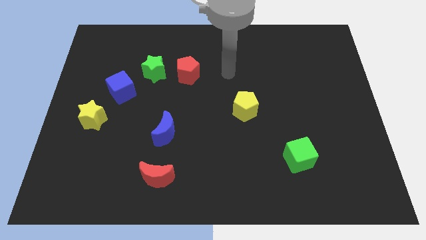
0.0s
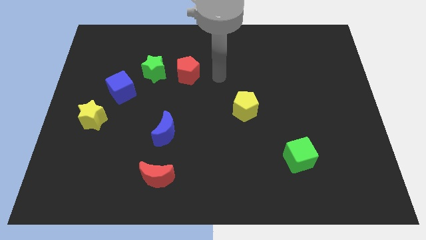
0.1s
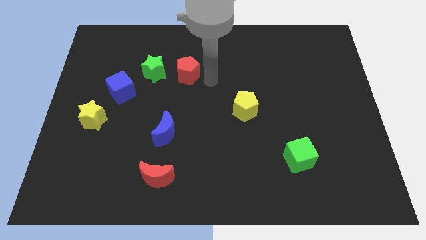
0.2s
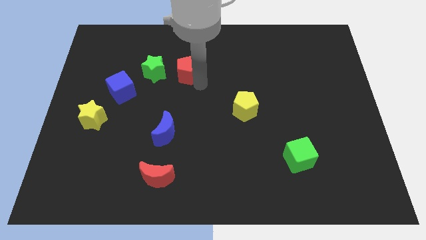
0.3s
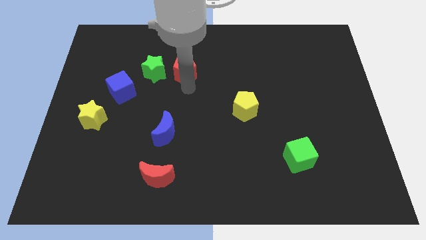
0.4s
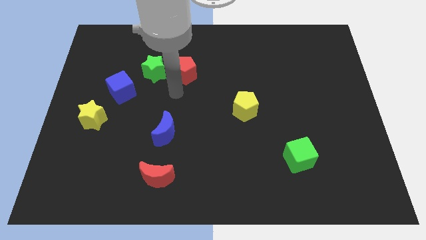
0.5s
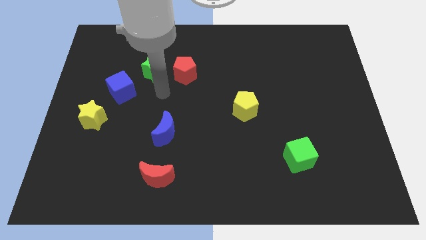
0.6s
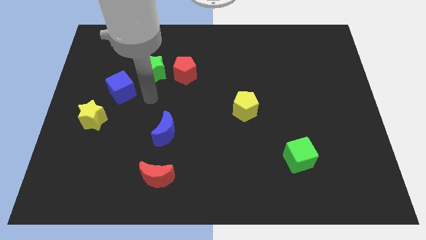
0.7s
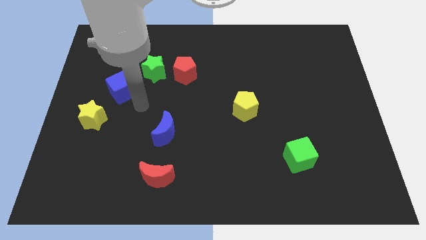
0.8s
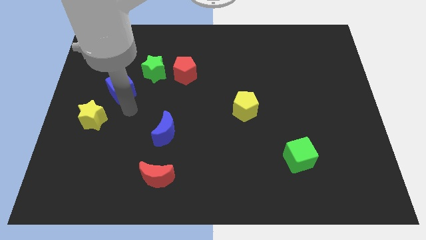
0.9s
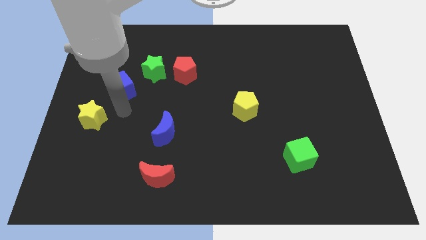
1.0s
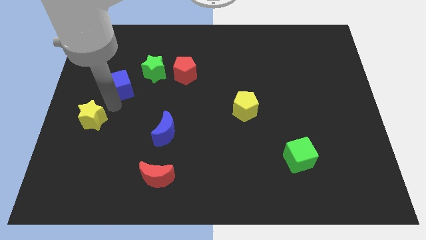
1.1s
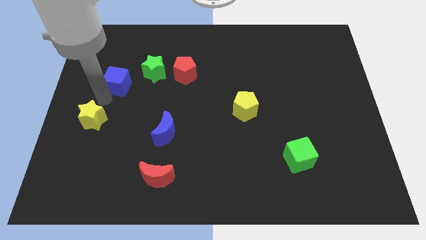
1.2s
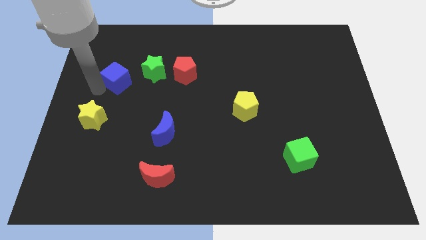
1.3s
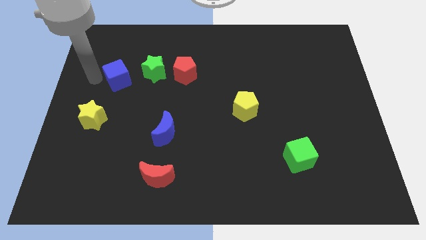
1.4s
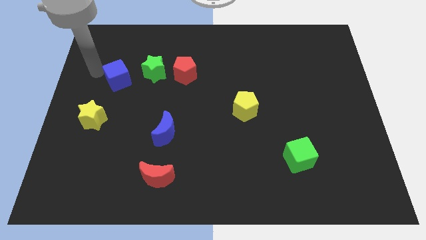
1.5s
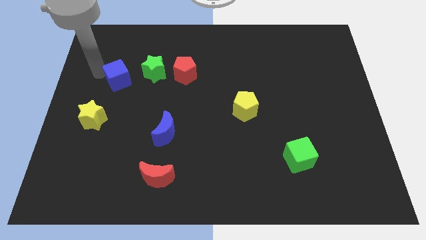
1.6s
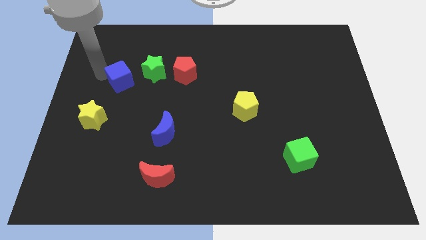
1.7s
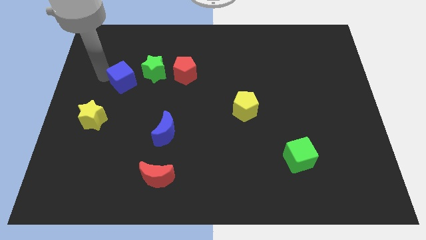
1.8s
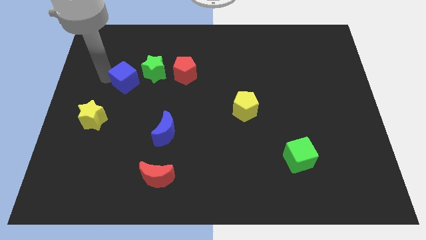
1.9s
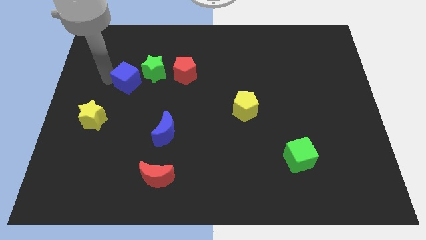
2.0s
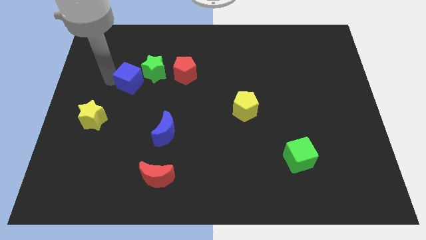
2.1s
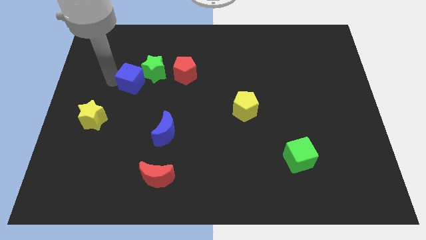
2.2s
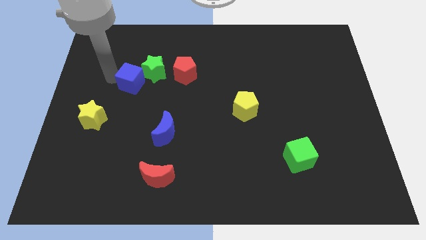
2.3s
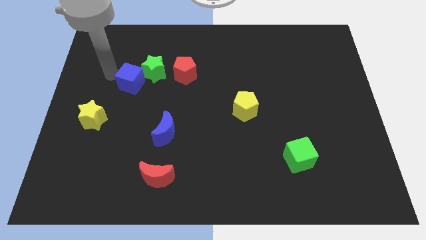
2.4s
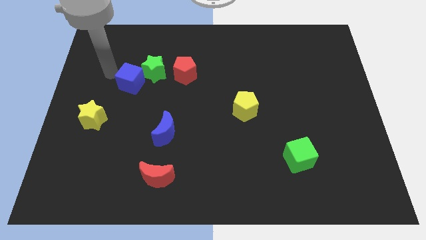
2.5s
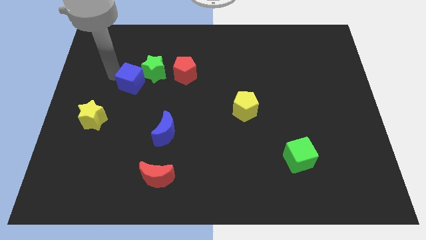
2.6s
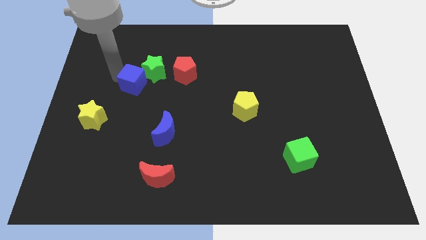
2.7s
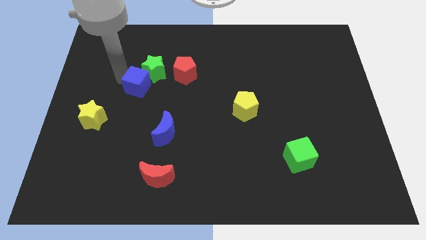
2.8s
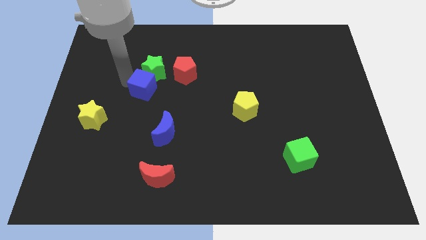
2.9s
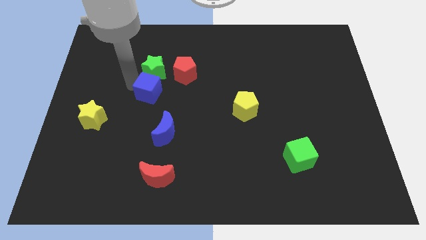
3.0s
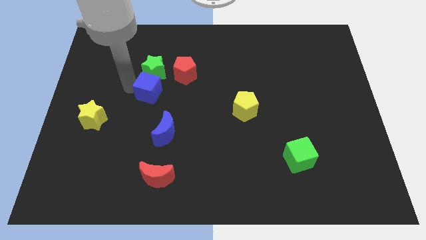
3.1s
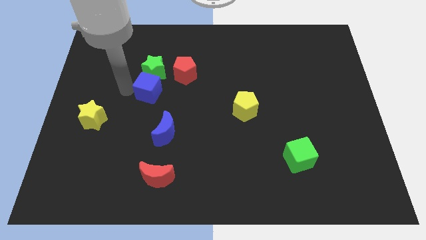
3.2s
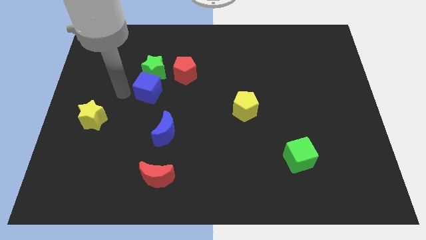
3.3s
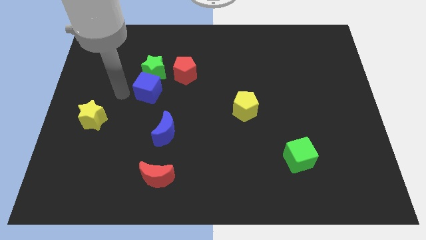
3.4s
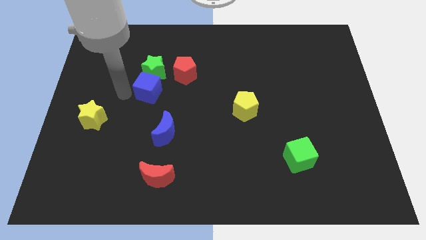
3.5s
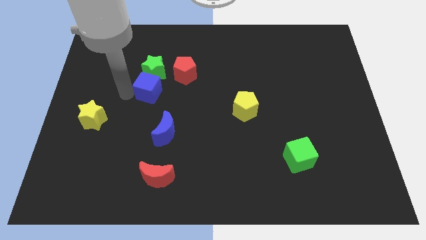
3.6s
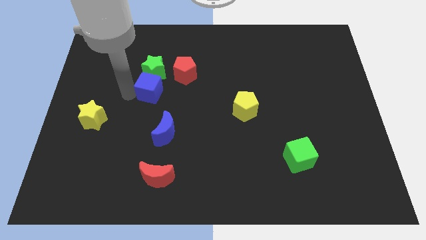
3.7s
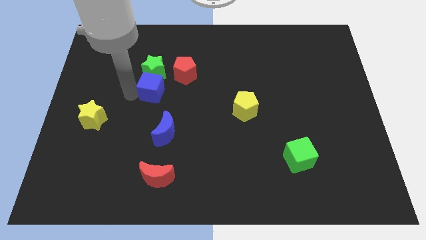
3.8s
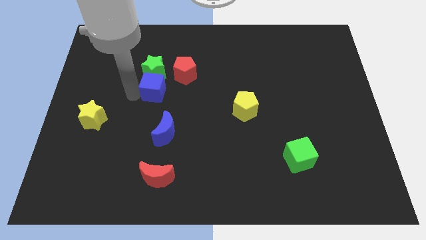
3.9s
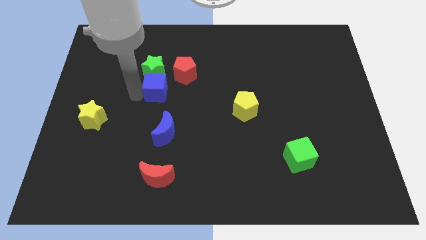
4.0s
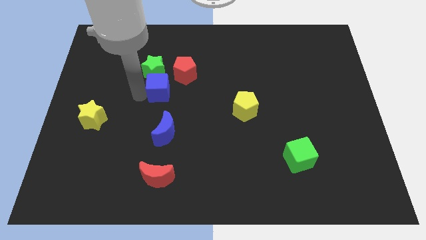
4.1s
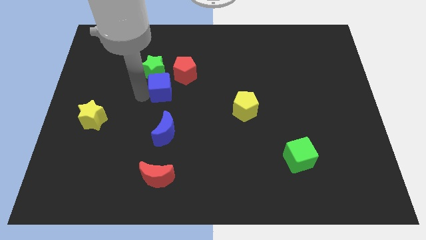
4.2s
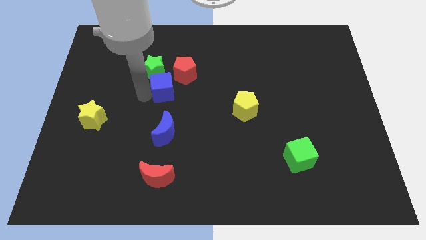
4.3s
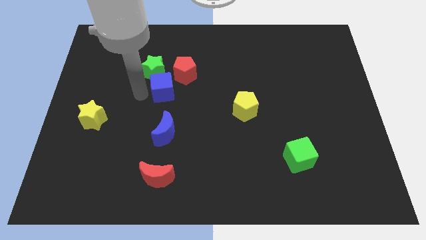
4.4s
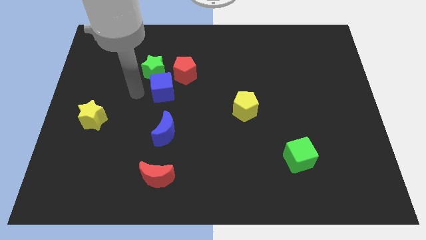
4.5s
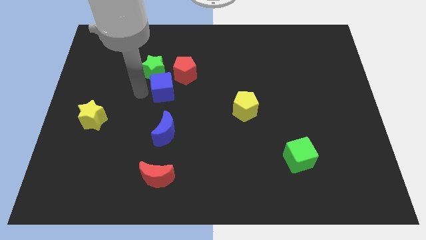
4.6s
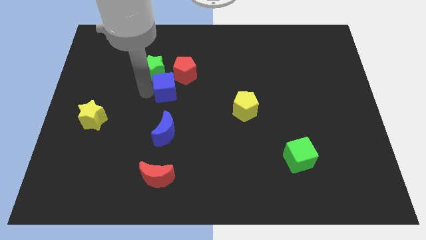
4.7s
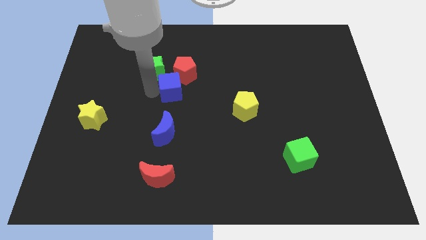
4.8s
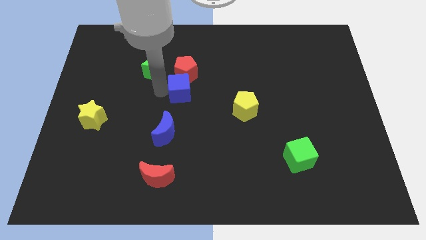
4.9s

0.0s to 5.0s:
push the blue cube to the bottom right of the red pentagon
